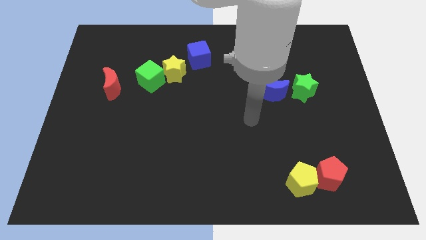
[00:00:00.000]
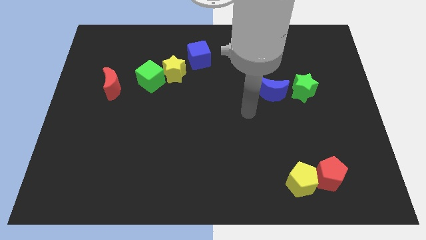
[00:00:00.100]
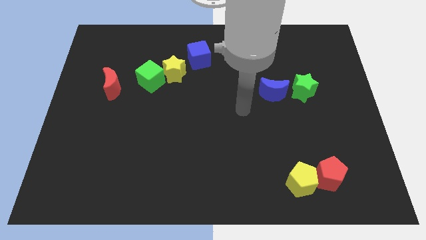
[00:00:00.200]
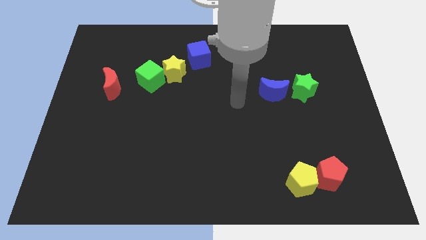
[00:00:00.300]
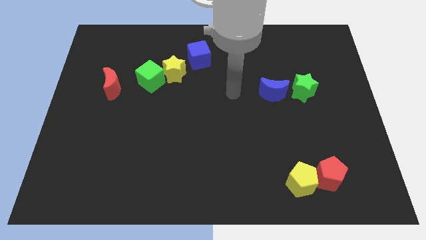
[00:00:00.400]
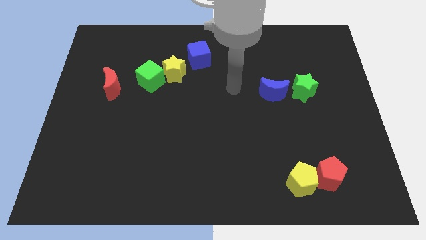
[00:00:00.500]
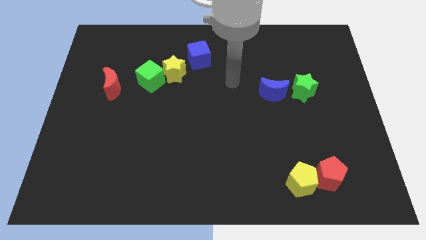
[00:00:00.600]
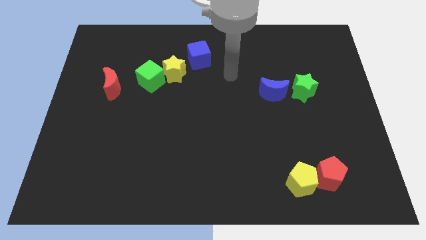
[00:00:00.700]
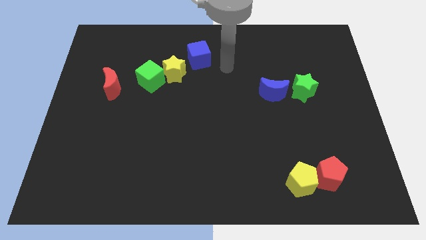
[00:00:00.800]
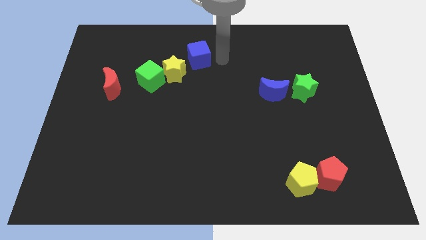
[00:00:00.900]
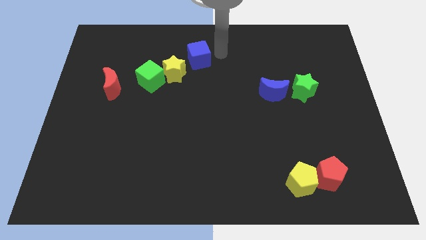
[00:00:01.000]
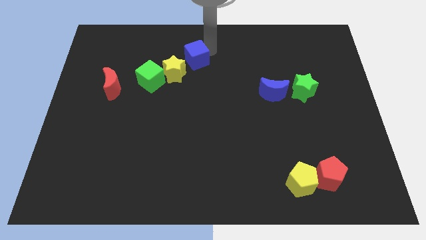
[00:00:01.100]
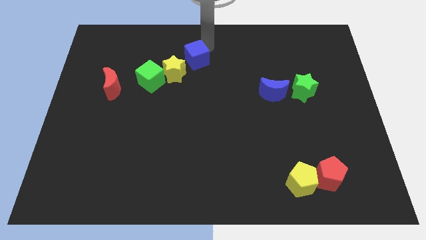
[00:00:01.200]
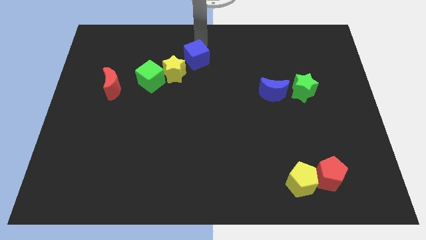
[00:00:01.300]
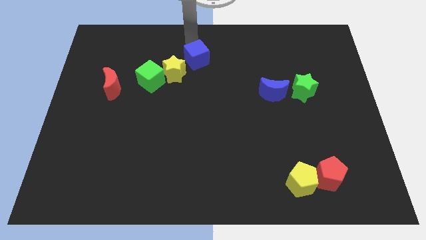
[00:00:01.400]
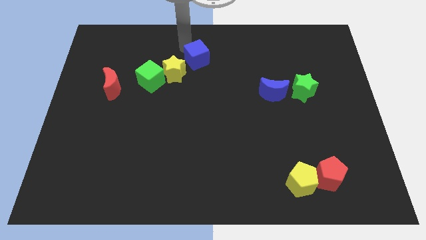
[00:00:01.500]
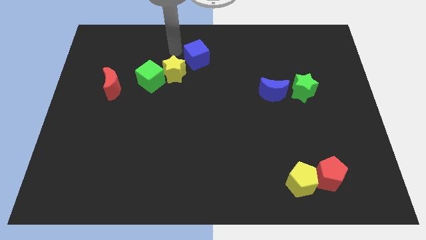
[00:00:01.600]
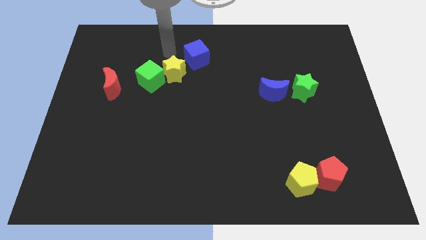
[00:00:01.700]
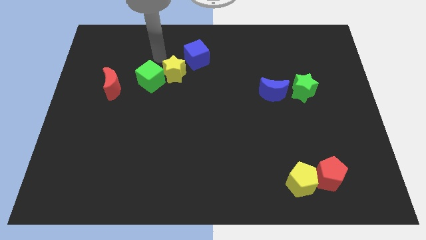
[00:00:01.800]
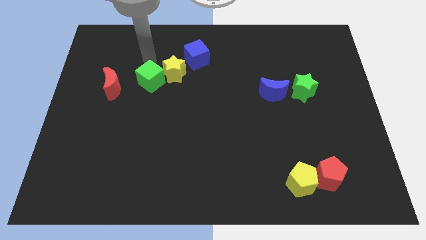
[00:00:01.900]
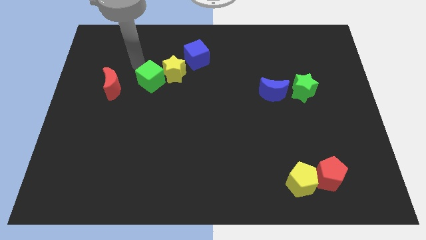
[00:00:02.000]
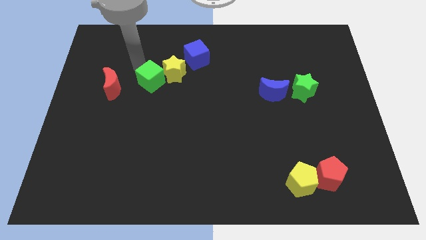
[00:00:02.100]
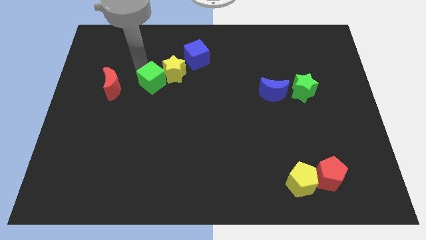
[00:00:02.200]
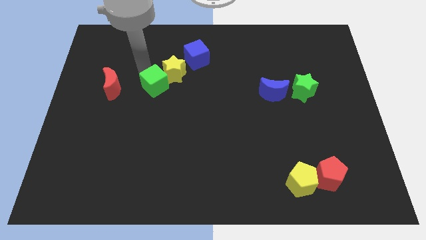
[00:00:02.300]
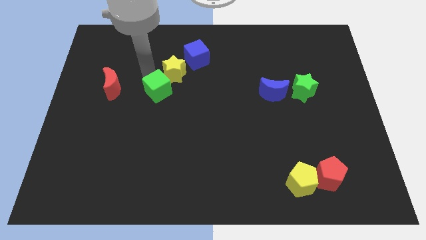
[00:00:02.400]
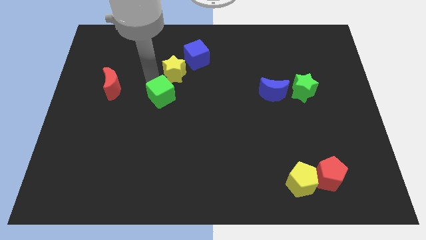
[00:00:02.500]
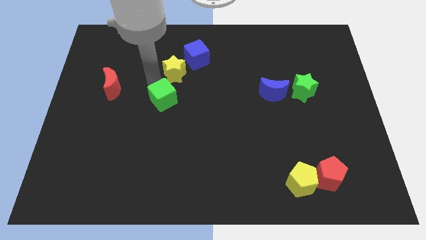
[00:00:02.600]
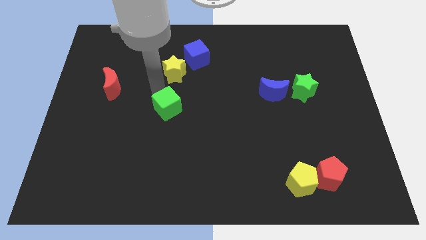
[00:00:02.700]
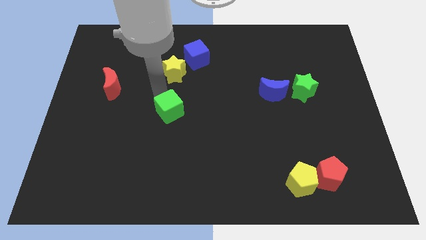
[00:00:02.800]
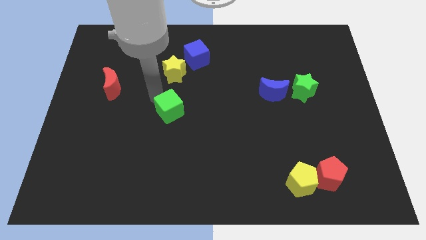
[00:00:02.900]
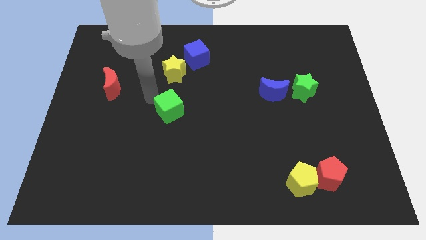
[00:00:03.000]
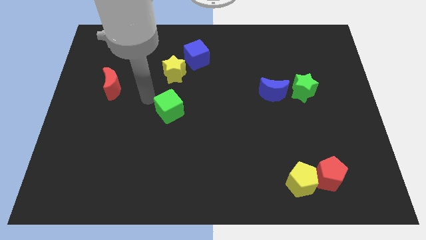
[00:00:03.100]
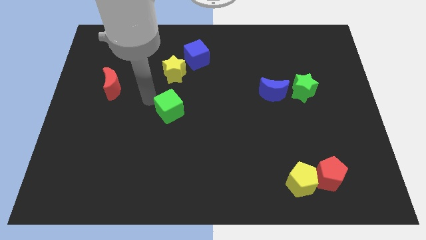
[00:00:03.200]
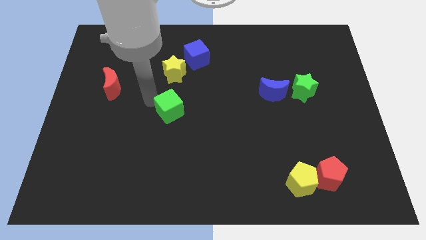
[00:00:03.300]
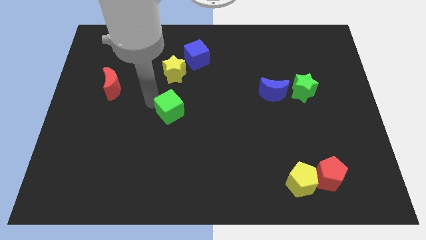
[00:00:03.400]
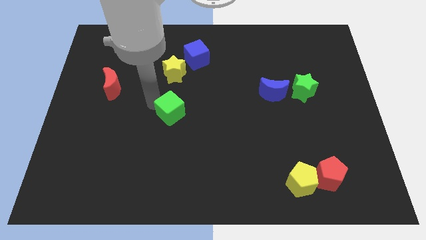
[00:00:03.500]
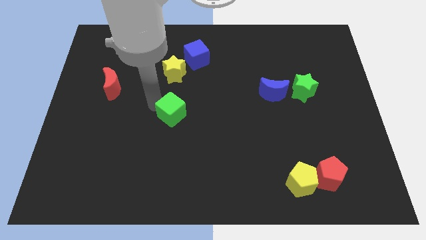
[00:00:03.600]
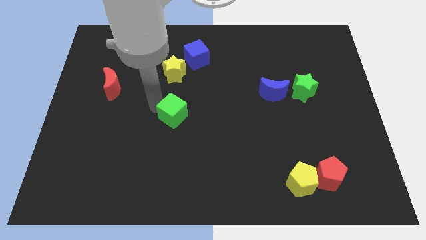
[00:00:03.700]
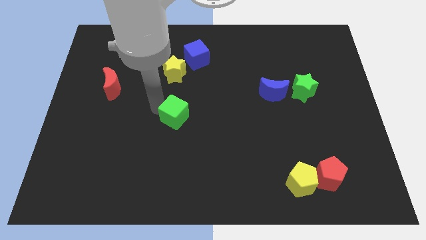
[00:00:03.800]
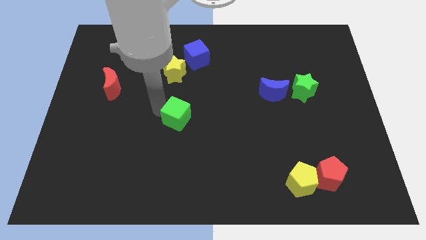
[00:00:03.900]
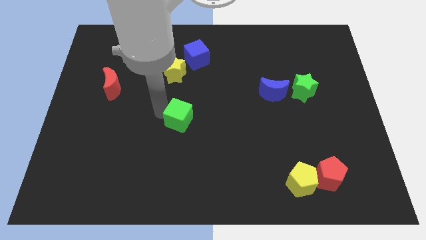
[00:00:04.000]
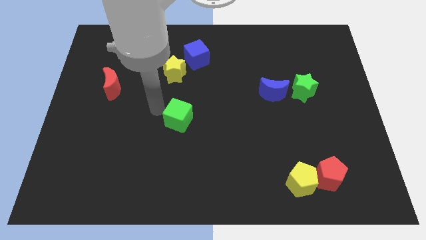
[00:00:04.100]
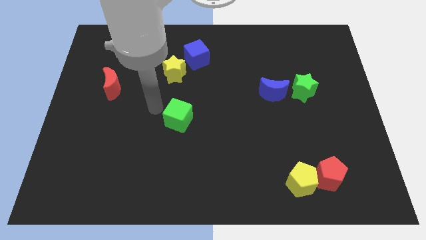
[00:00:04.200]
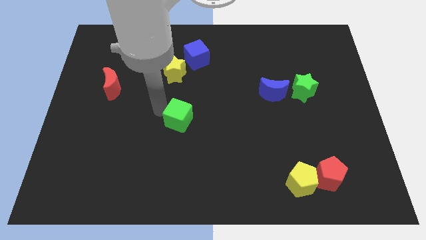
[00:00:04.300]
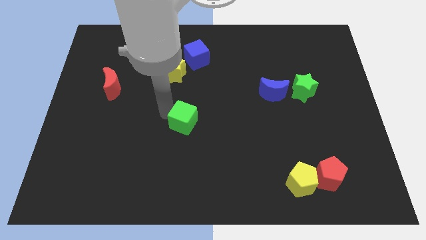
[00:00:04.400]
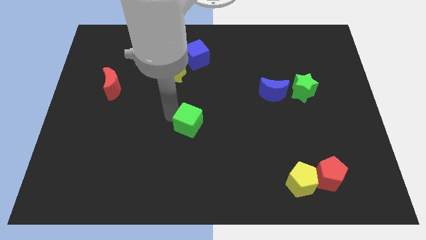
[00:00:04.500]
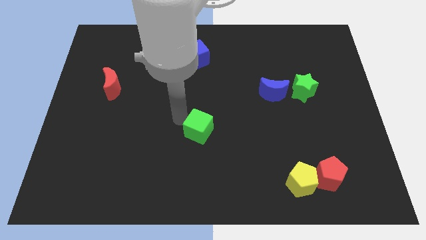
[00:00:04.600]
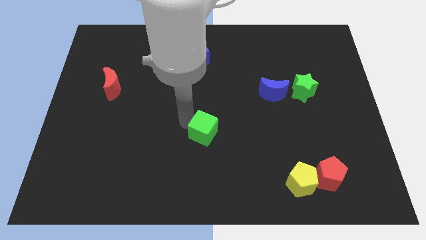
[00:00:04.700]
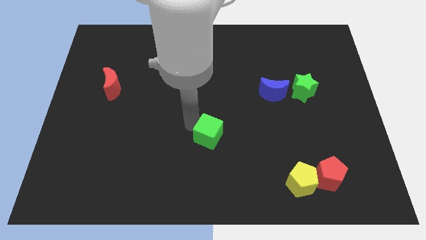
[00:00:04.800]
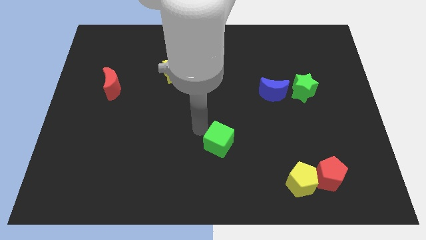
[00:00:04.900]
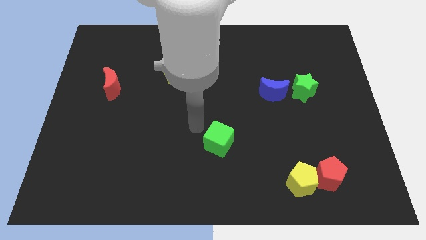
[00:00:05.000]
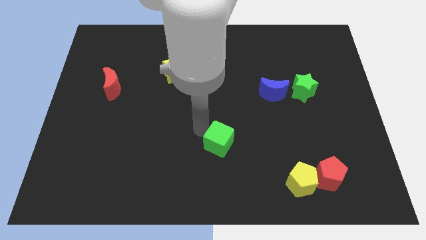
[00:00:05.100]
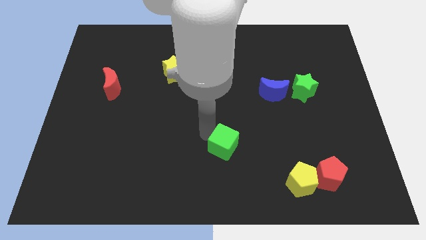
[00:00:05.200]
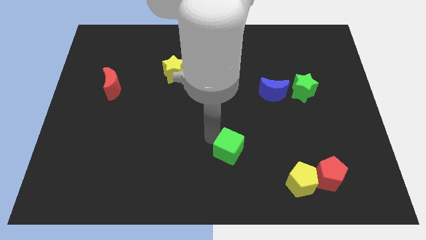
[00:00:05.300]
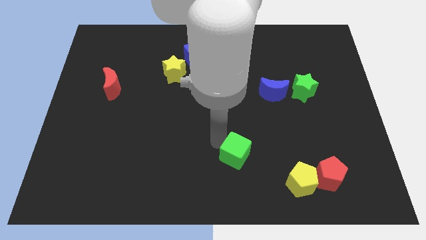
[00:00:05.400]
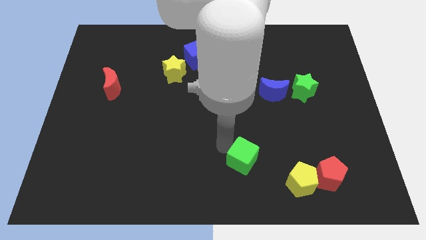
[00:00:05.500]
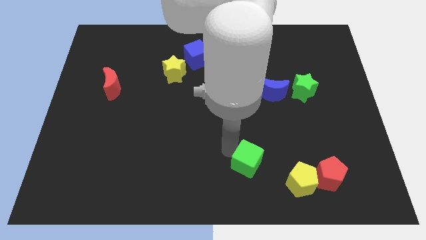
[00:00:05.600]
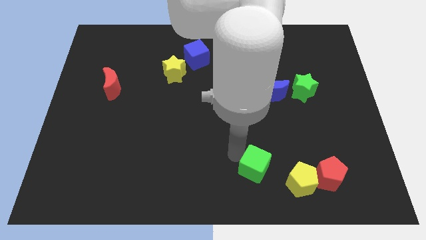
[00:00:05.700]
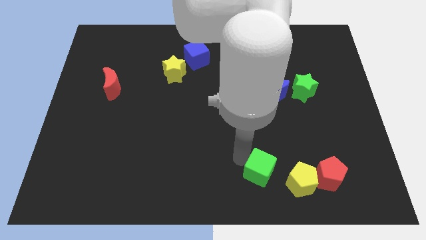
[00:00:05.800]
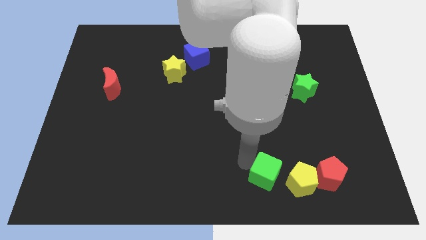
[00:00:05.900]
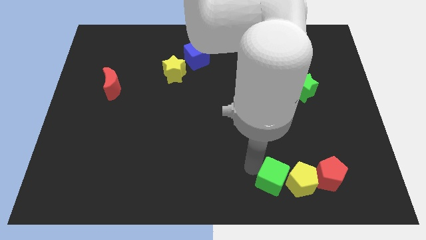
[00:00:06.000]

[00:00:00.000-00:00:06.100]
move the green cube towards the yellow pentagon
